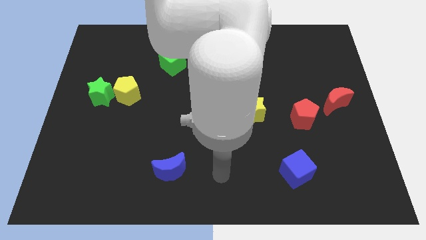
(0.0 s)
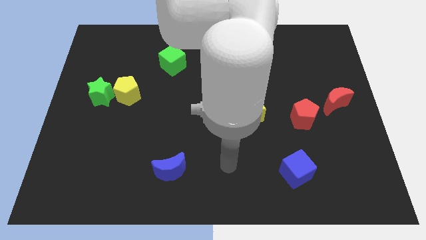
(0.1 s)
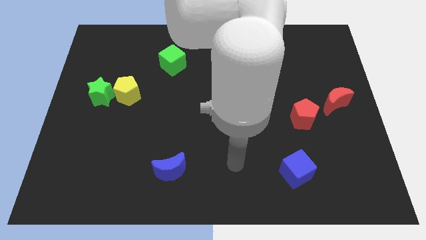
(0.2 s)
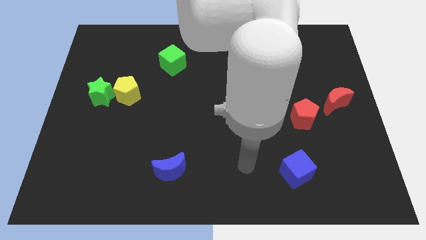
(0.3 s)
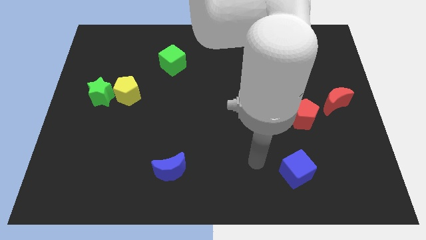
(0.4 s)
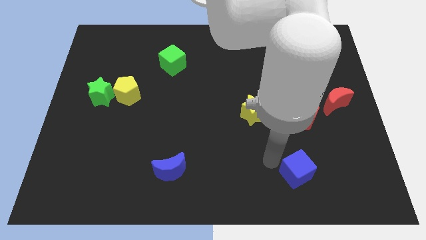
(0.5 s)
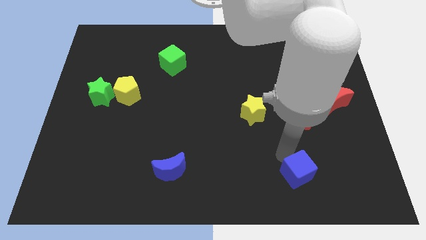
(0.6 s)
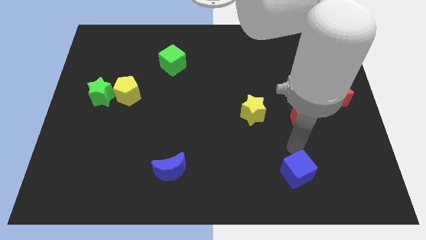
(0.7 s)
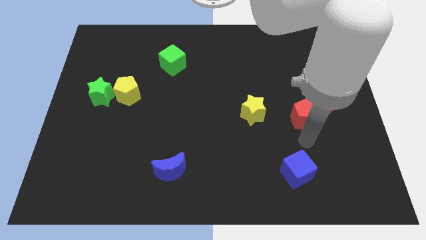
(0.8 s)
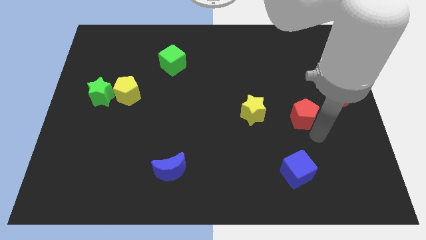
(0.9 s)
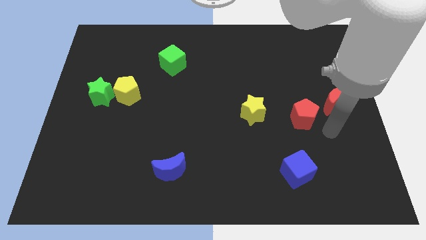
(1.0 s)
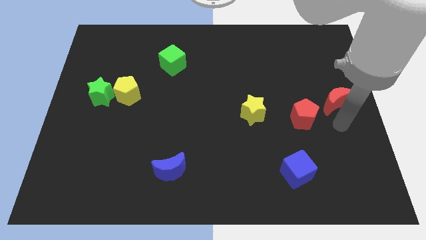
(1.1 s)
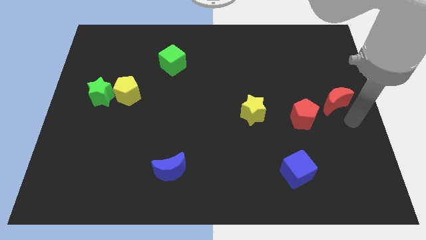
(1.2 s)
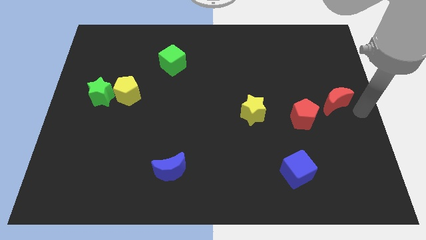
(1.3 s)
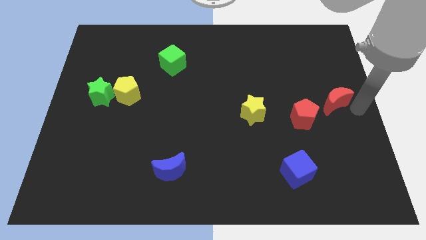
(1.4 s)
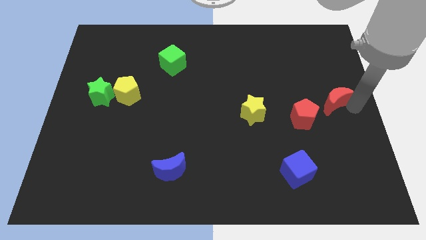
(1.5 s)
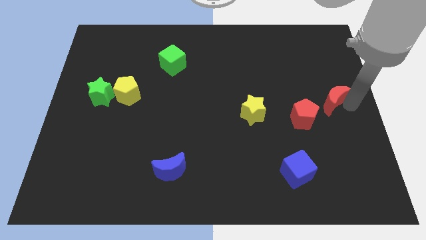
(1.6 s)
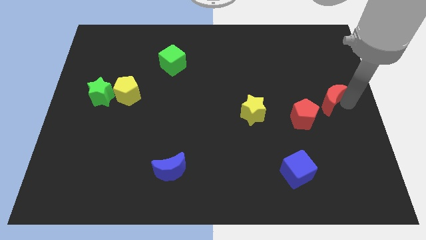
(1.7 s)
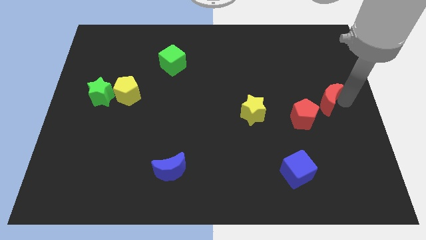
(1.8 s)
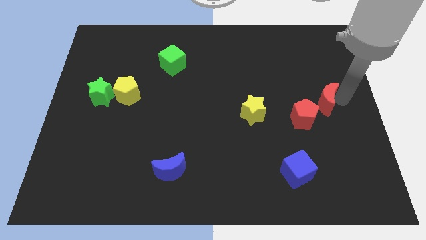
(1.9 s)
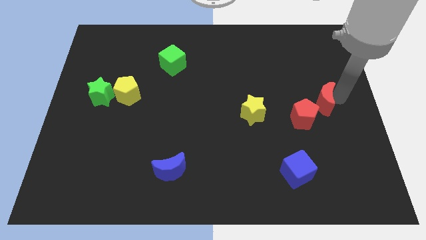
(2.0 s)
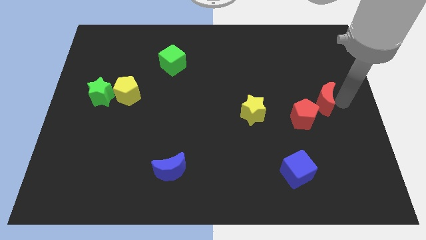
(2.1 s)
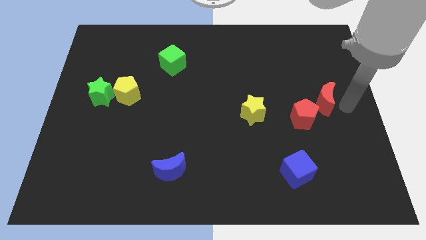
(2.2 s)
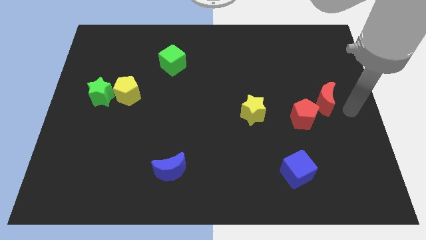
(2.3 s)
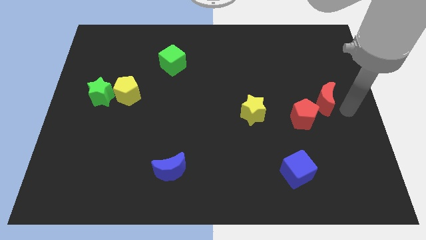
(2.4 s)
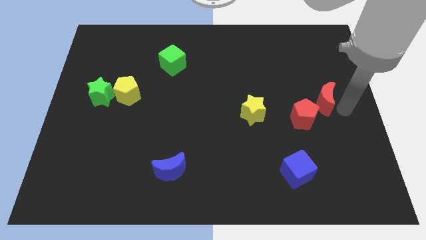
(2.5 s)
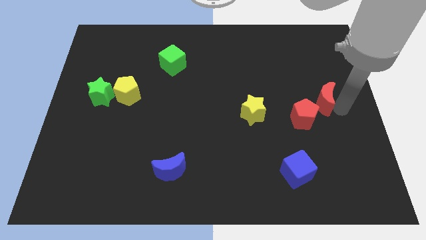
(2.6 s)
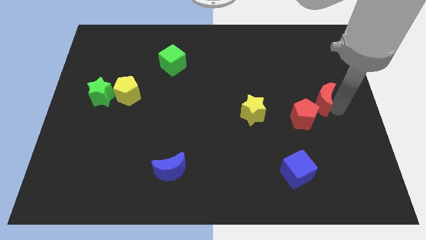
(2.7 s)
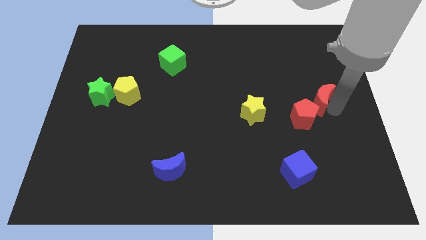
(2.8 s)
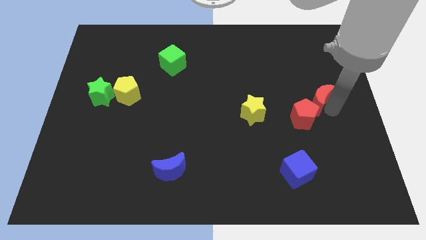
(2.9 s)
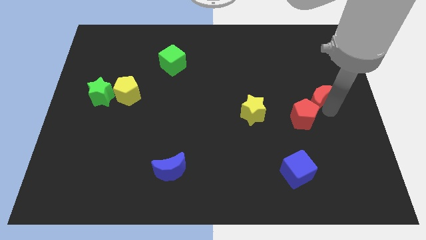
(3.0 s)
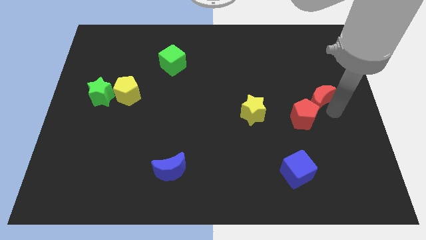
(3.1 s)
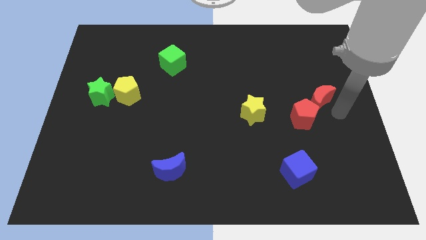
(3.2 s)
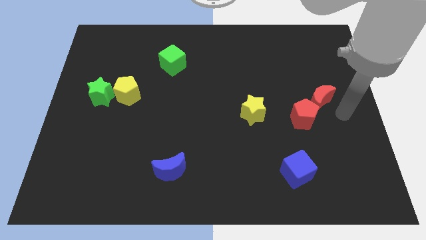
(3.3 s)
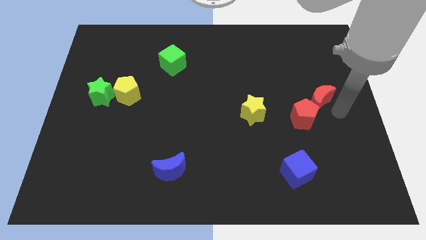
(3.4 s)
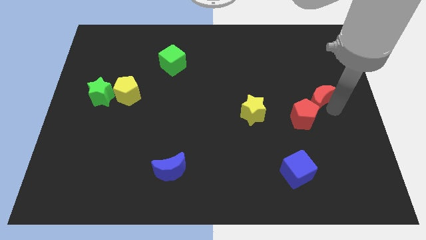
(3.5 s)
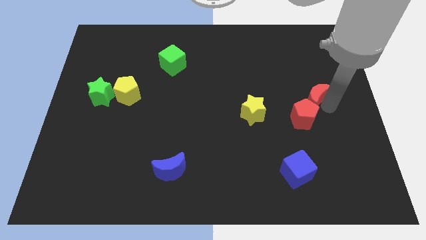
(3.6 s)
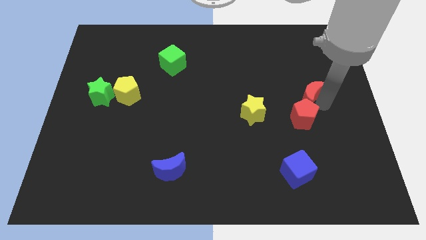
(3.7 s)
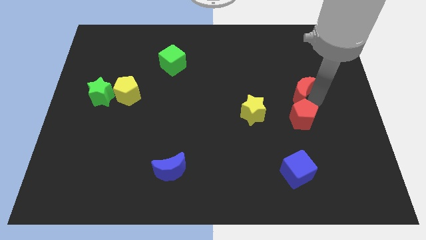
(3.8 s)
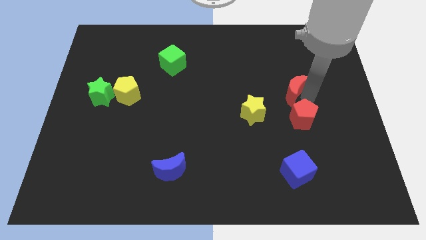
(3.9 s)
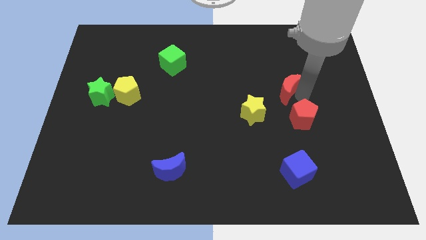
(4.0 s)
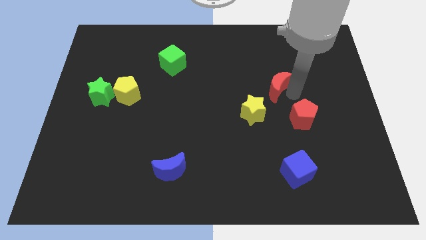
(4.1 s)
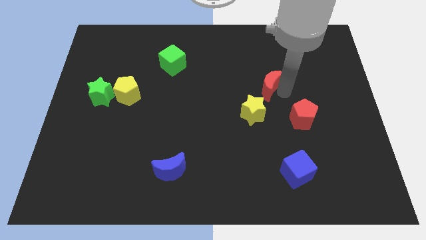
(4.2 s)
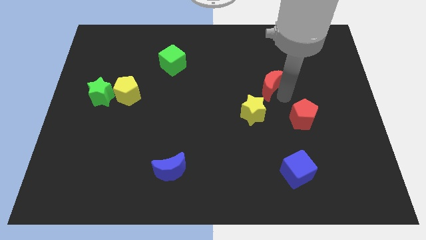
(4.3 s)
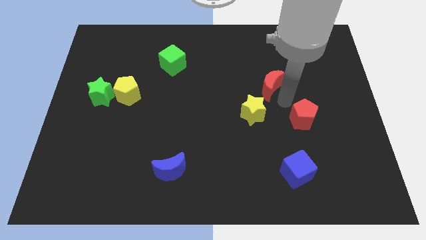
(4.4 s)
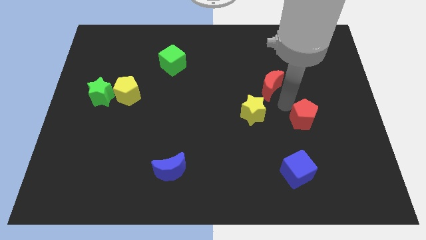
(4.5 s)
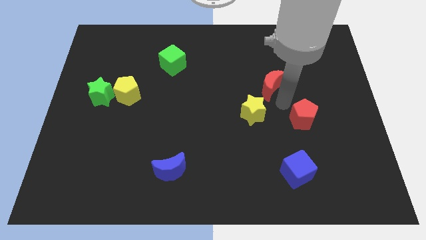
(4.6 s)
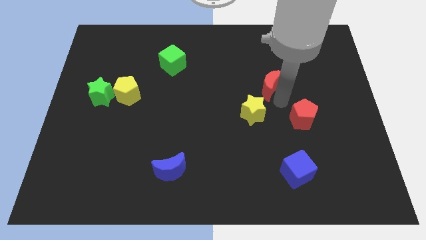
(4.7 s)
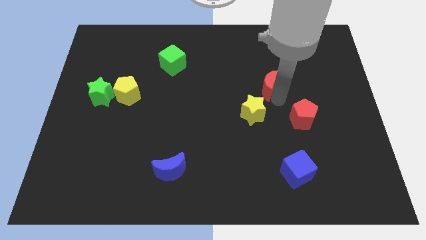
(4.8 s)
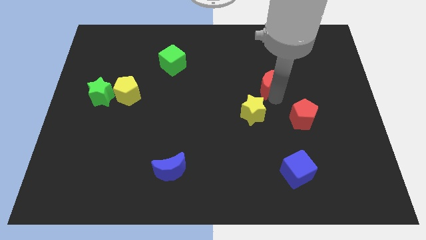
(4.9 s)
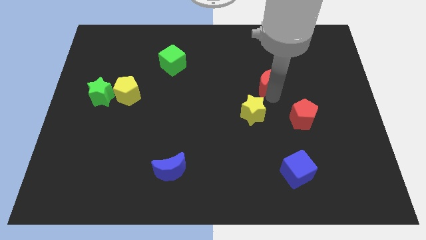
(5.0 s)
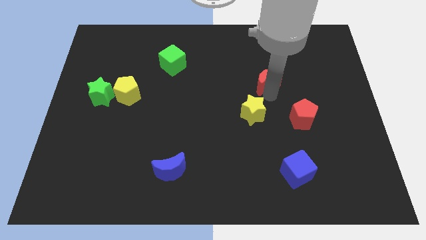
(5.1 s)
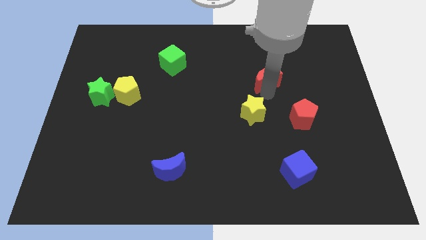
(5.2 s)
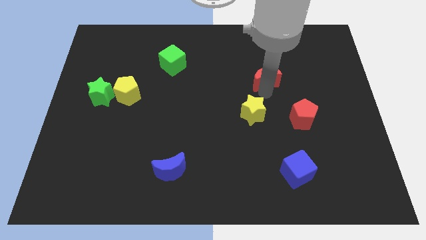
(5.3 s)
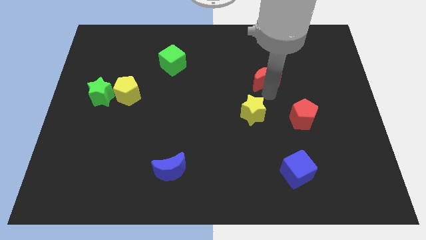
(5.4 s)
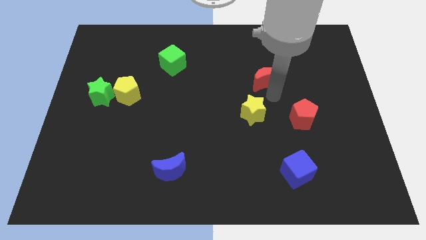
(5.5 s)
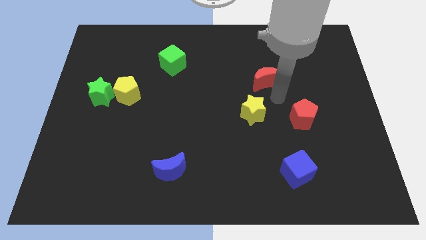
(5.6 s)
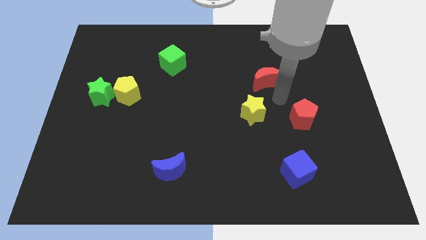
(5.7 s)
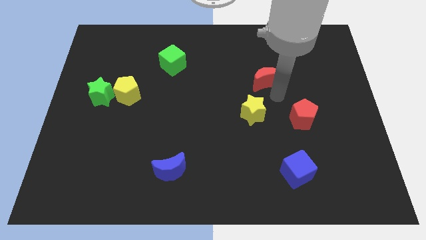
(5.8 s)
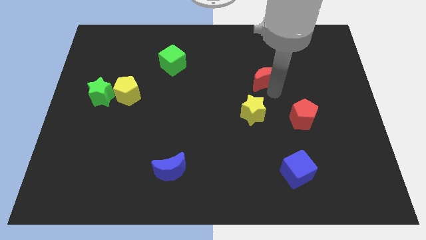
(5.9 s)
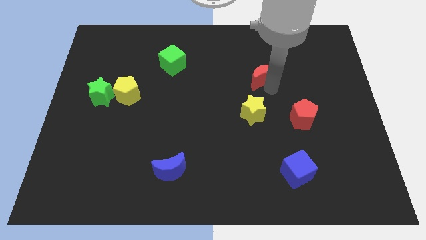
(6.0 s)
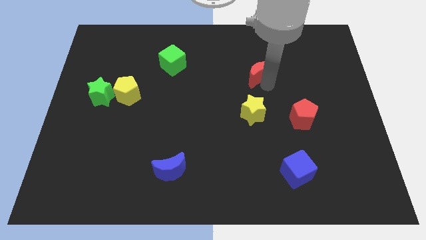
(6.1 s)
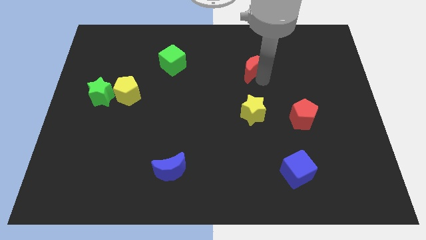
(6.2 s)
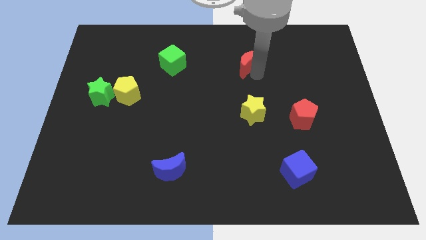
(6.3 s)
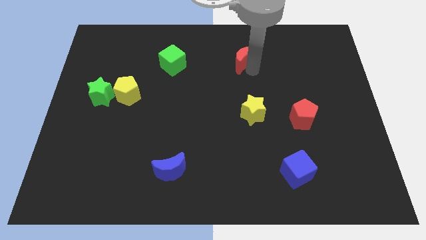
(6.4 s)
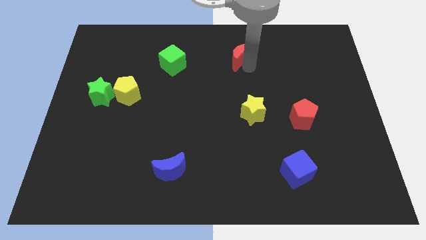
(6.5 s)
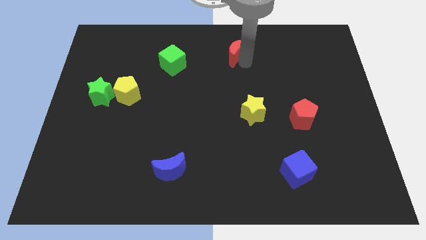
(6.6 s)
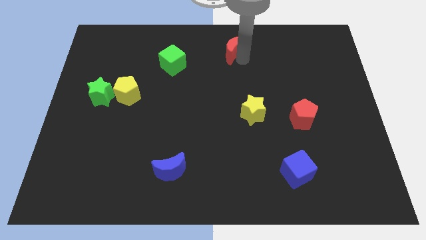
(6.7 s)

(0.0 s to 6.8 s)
push the red moon to the towards your base
